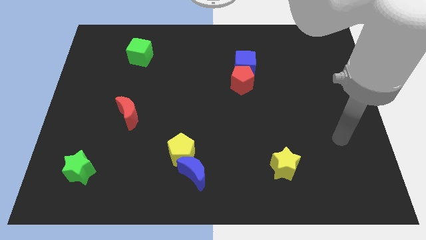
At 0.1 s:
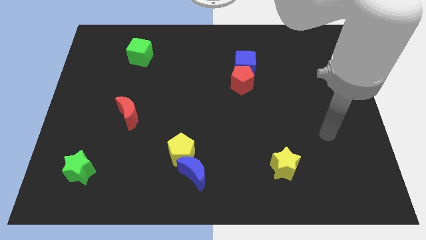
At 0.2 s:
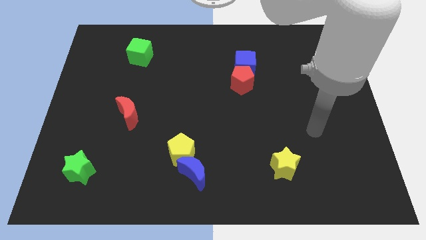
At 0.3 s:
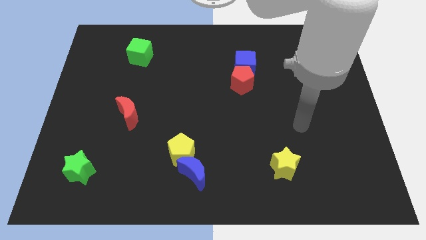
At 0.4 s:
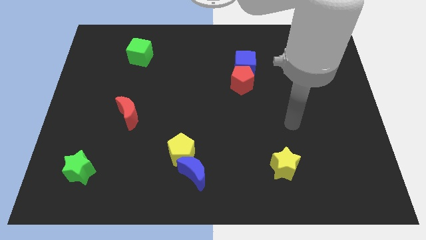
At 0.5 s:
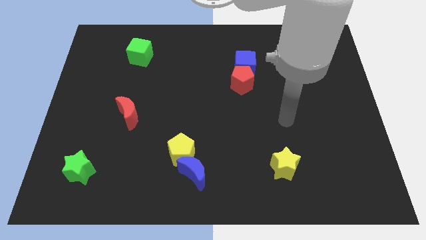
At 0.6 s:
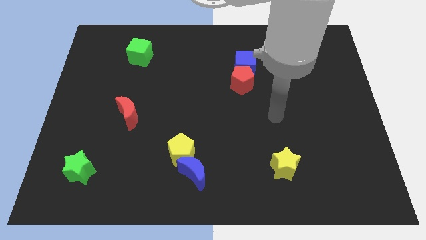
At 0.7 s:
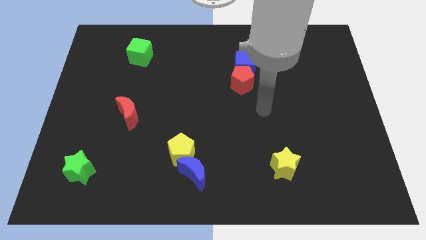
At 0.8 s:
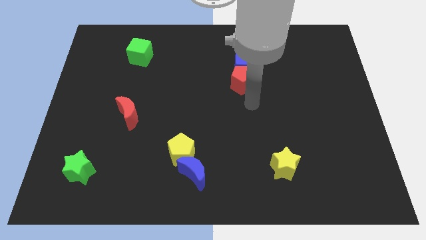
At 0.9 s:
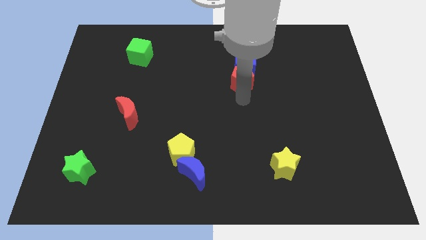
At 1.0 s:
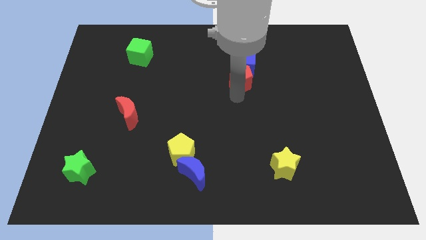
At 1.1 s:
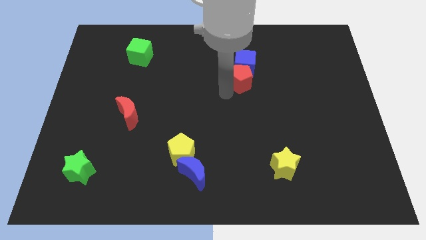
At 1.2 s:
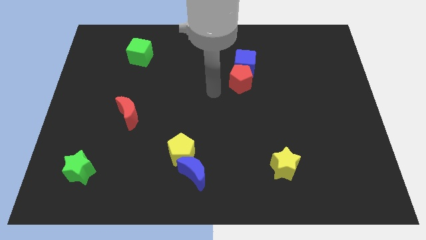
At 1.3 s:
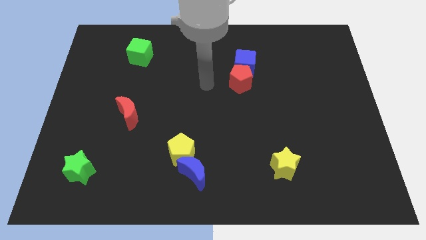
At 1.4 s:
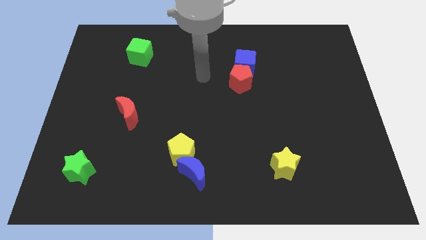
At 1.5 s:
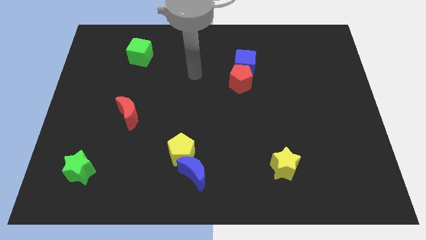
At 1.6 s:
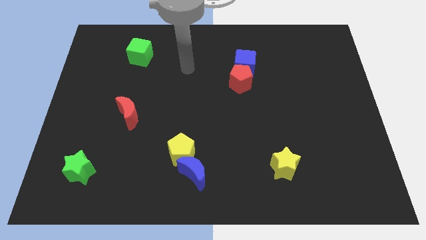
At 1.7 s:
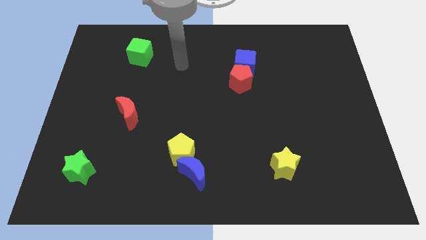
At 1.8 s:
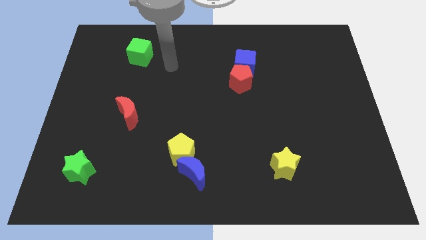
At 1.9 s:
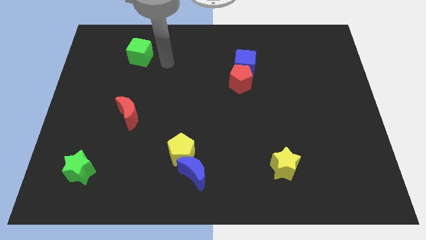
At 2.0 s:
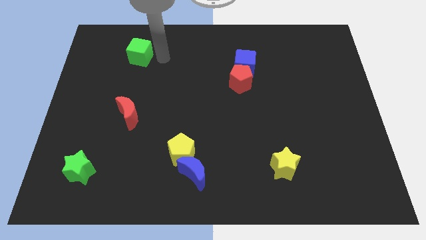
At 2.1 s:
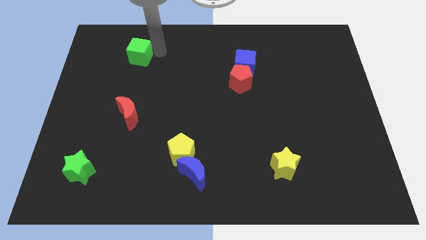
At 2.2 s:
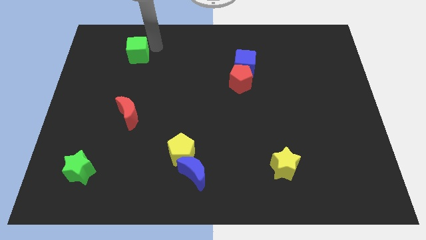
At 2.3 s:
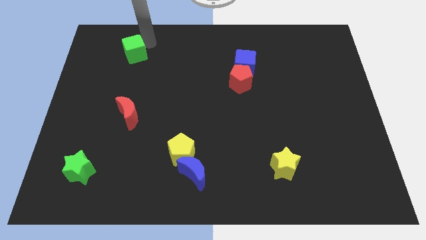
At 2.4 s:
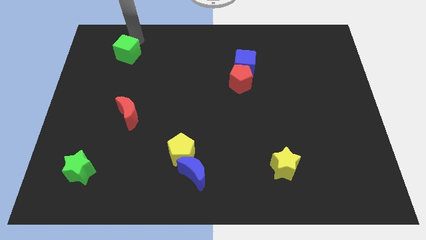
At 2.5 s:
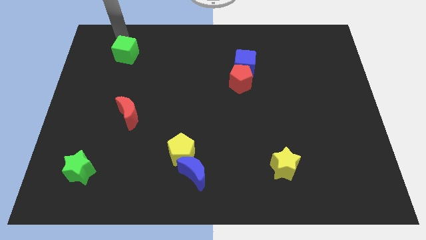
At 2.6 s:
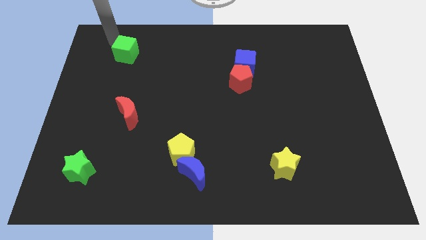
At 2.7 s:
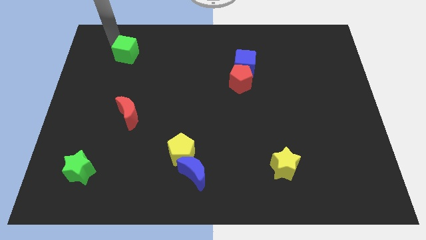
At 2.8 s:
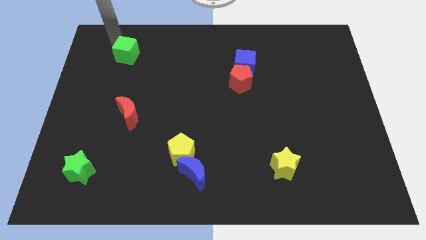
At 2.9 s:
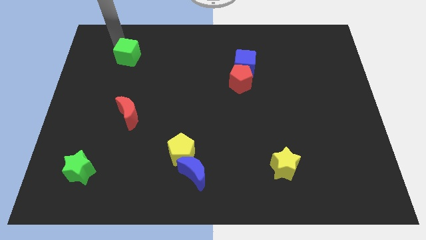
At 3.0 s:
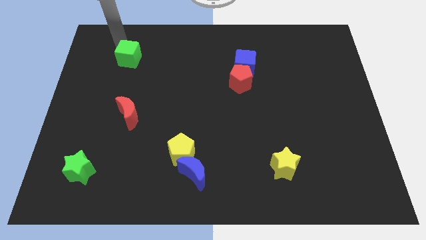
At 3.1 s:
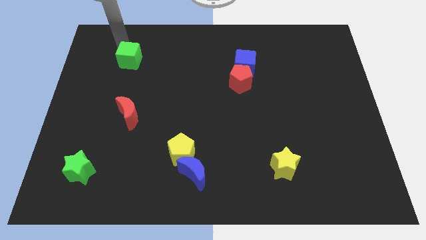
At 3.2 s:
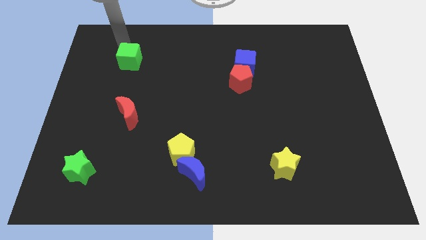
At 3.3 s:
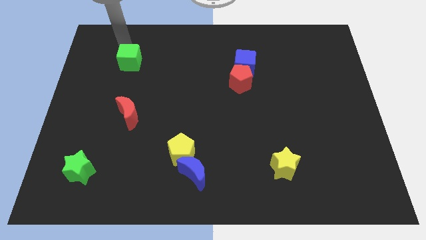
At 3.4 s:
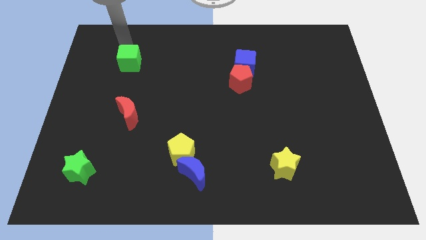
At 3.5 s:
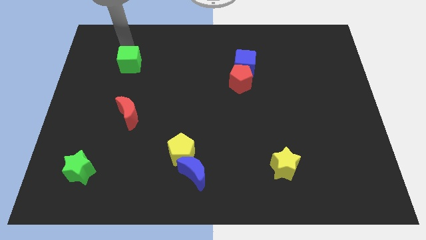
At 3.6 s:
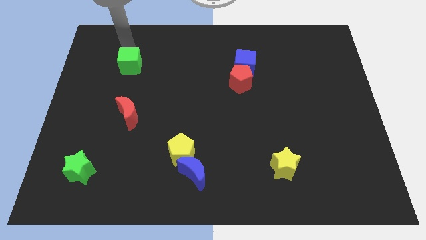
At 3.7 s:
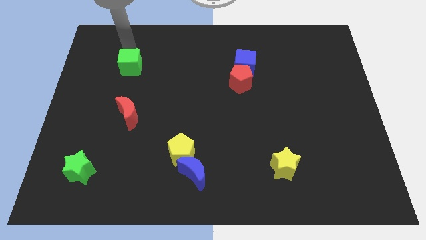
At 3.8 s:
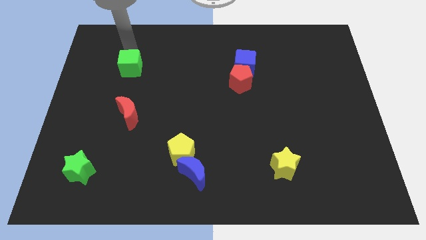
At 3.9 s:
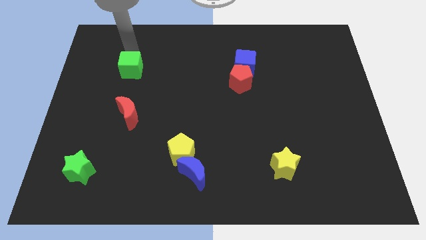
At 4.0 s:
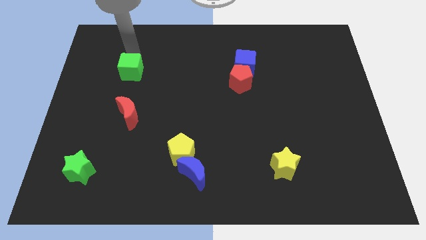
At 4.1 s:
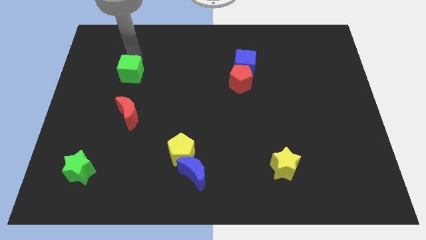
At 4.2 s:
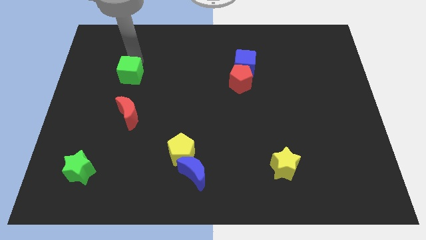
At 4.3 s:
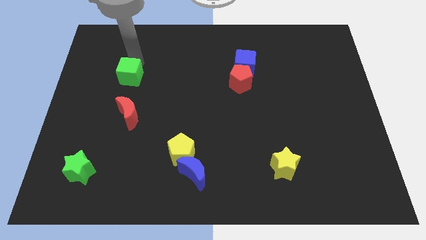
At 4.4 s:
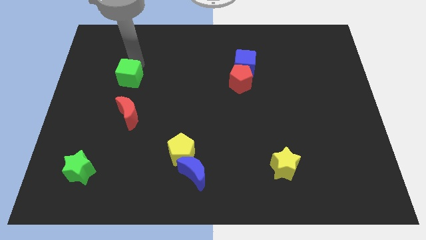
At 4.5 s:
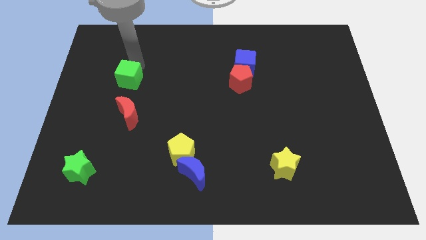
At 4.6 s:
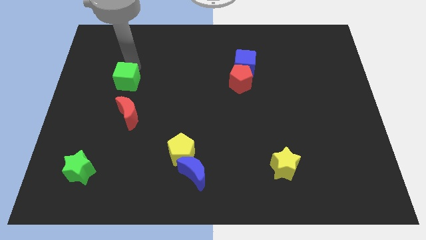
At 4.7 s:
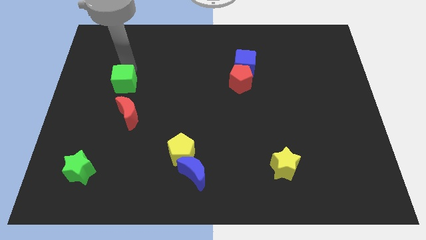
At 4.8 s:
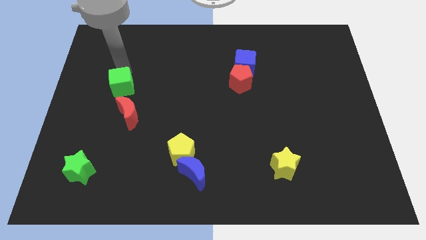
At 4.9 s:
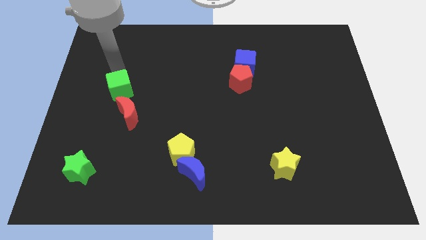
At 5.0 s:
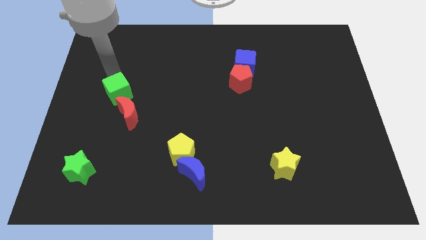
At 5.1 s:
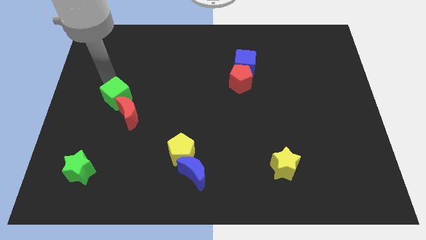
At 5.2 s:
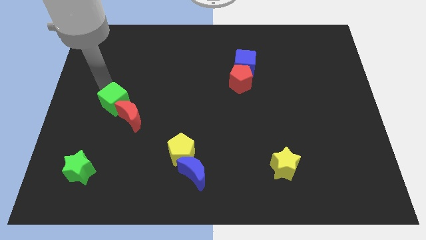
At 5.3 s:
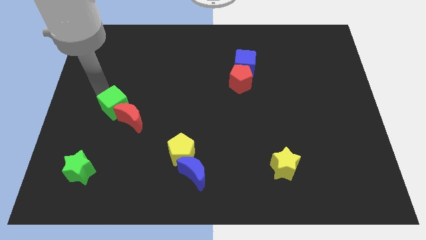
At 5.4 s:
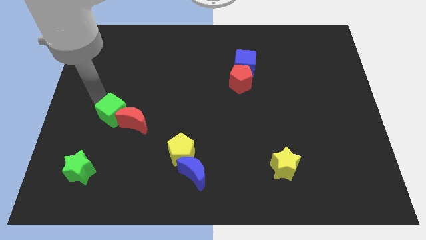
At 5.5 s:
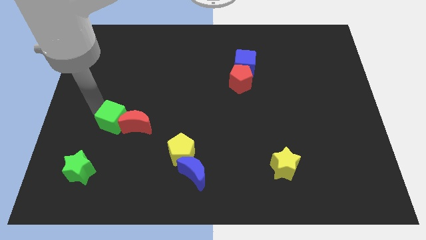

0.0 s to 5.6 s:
move the green cube down

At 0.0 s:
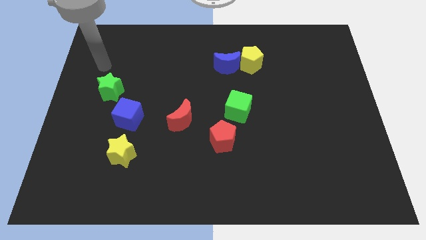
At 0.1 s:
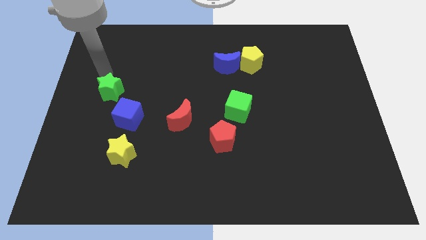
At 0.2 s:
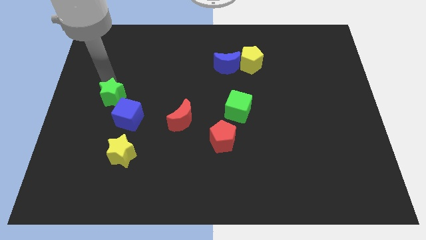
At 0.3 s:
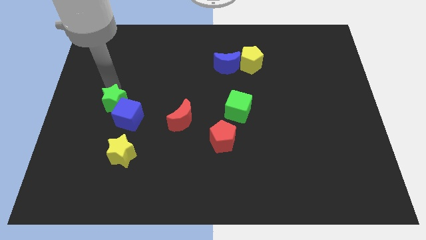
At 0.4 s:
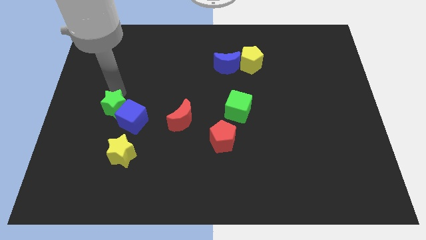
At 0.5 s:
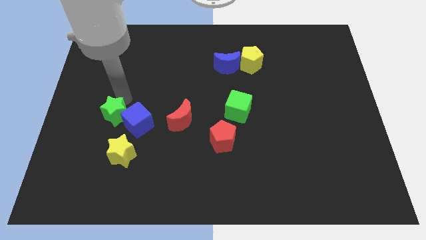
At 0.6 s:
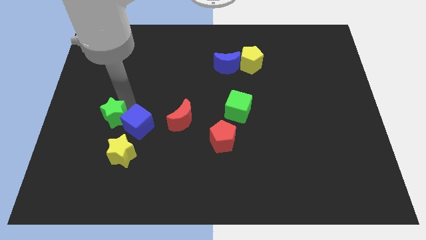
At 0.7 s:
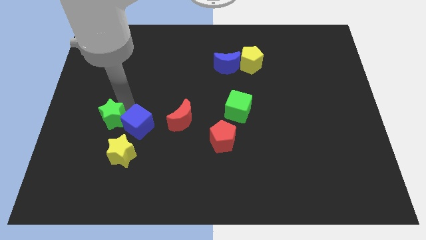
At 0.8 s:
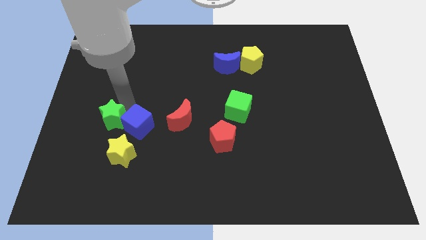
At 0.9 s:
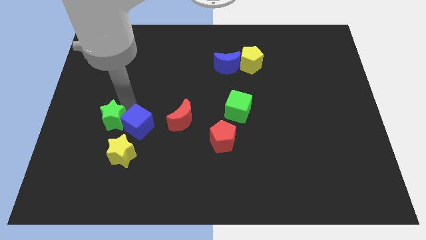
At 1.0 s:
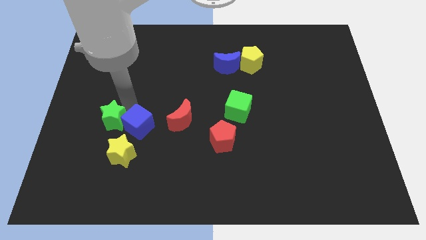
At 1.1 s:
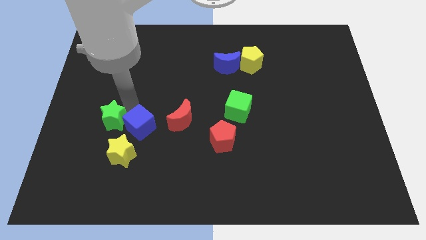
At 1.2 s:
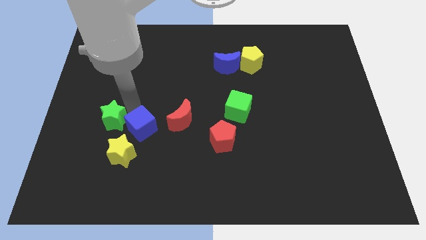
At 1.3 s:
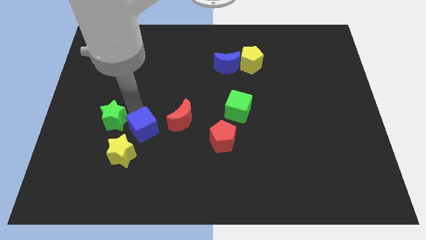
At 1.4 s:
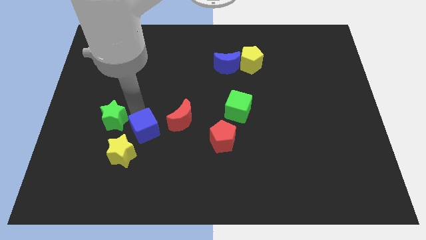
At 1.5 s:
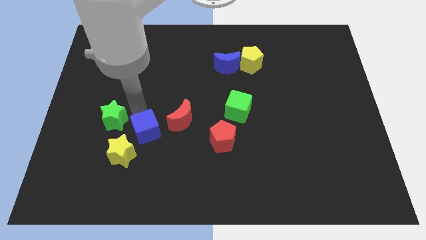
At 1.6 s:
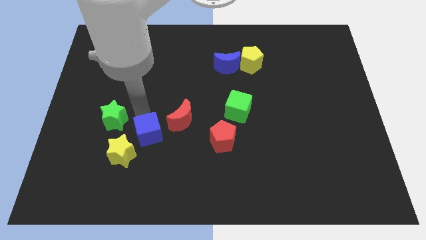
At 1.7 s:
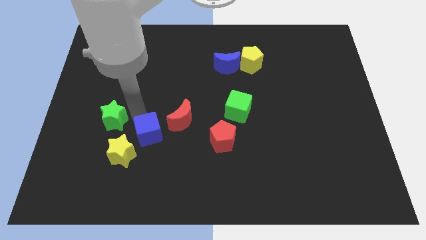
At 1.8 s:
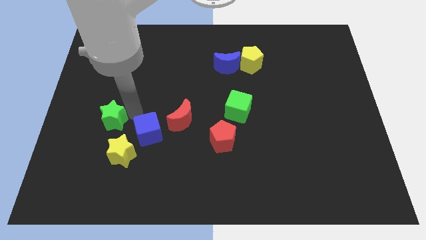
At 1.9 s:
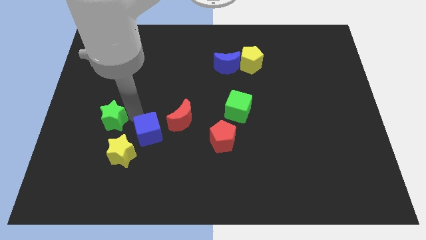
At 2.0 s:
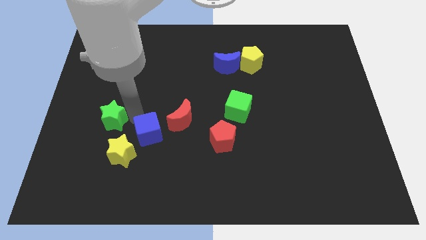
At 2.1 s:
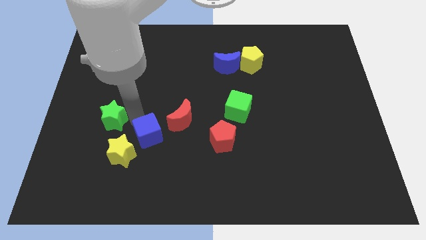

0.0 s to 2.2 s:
slightly slide the blue cube down and right

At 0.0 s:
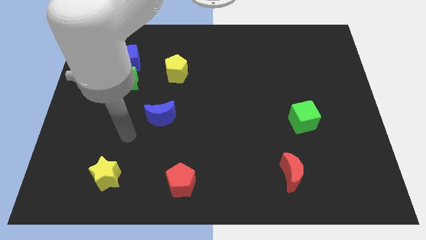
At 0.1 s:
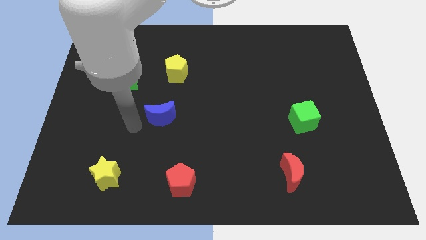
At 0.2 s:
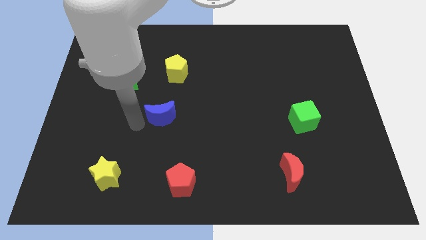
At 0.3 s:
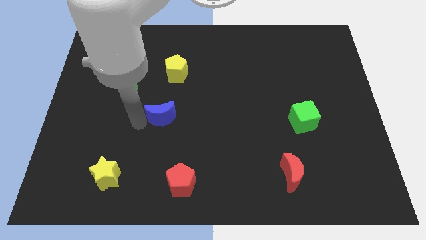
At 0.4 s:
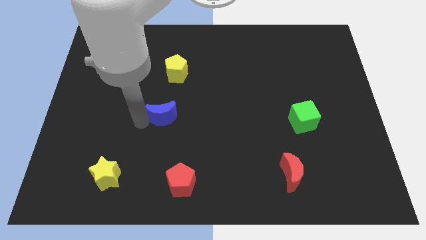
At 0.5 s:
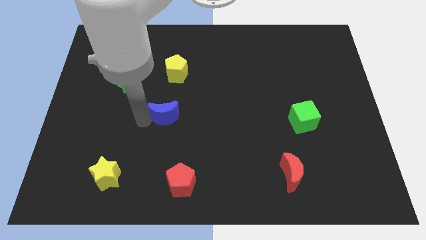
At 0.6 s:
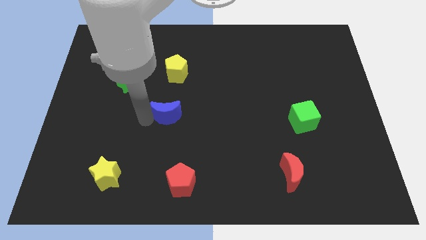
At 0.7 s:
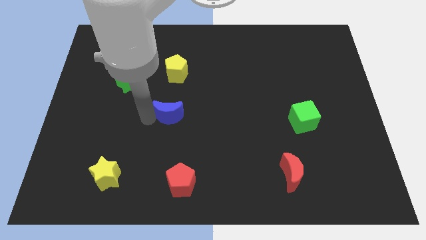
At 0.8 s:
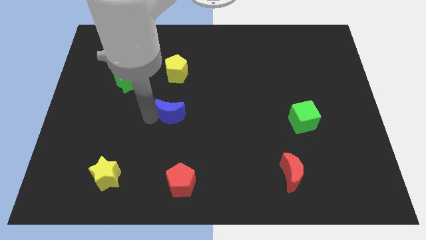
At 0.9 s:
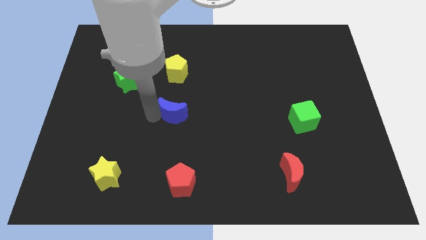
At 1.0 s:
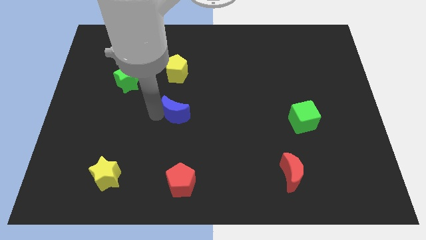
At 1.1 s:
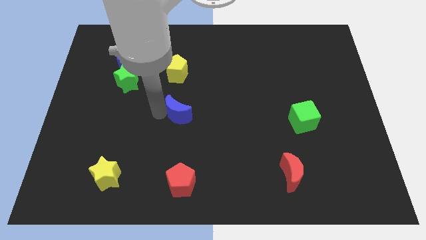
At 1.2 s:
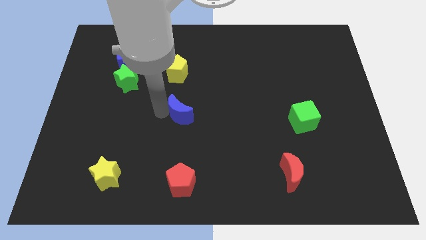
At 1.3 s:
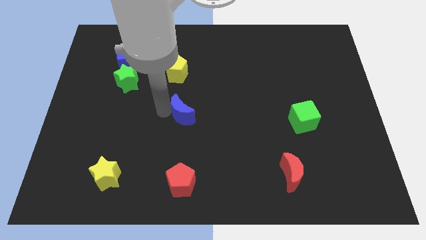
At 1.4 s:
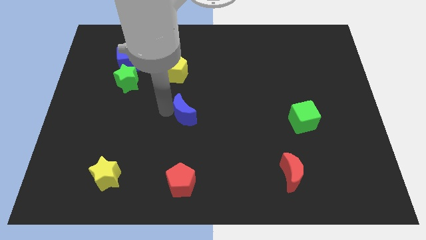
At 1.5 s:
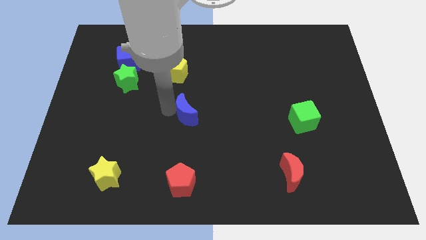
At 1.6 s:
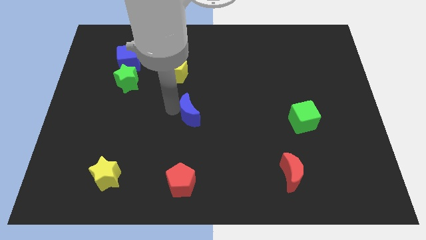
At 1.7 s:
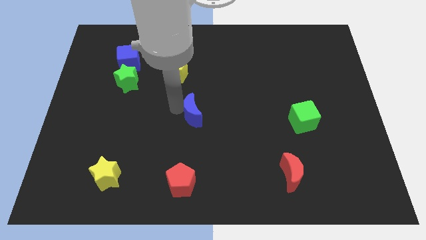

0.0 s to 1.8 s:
slightly slide the blue moon right
